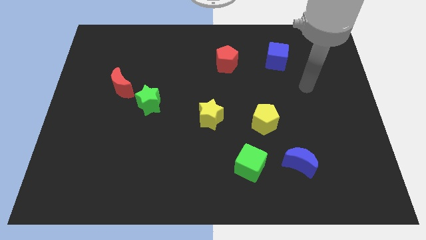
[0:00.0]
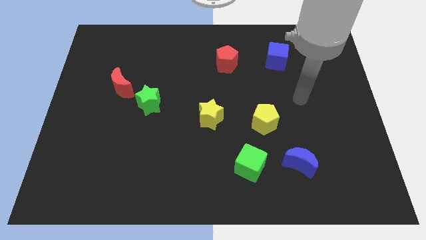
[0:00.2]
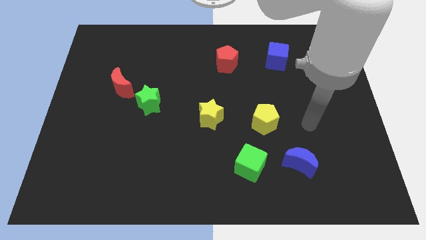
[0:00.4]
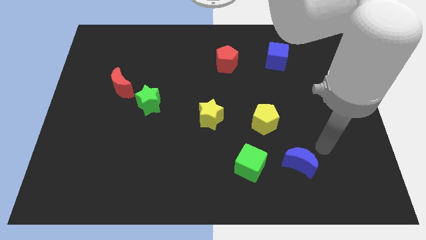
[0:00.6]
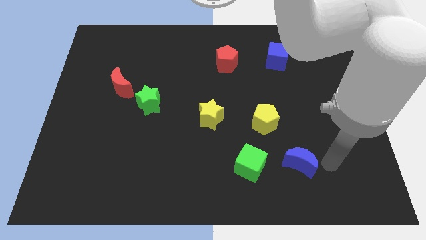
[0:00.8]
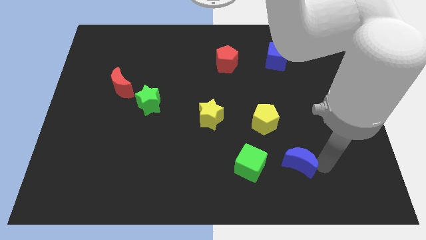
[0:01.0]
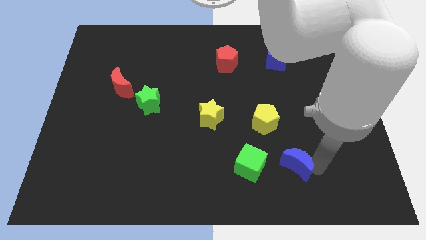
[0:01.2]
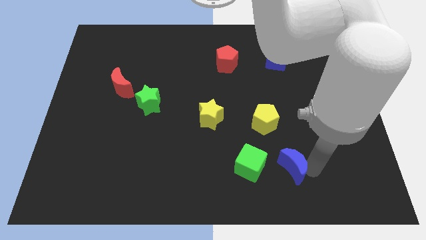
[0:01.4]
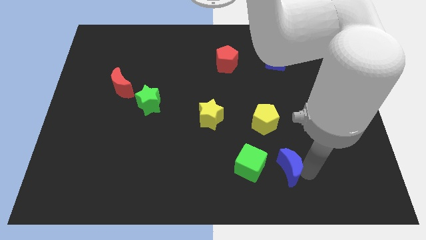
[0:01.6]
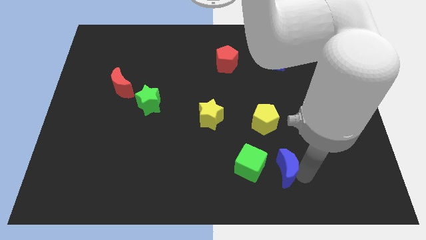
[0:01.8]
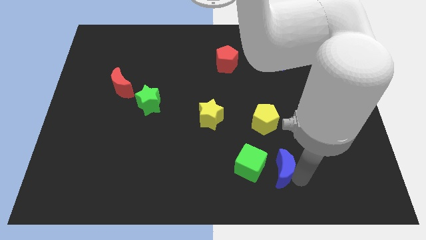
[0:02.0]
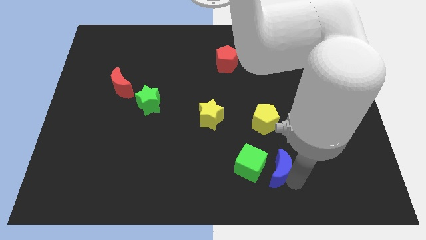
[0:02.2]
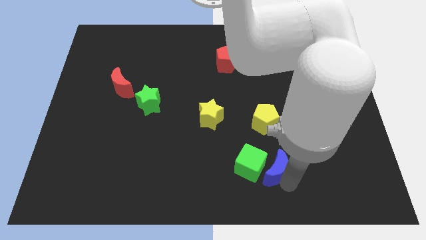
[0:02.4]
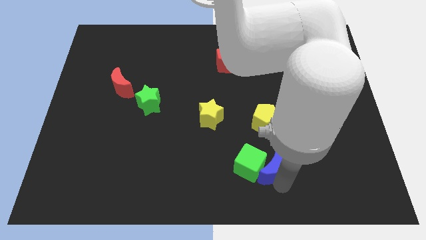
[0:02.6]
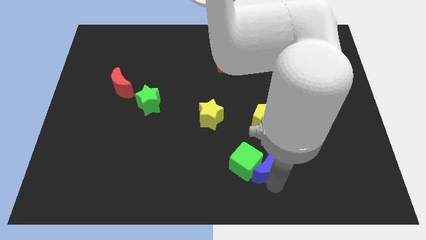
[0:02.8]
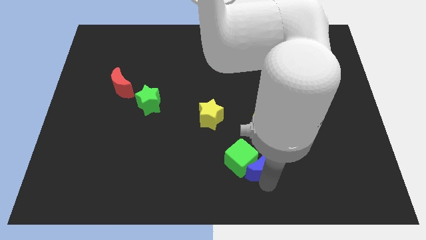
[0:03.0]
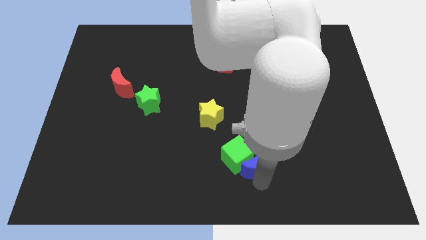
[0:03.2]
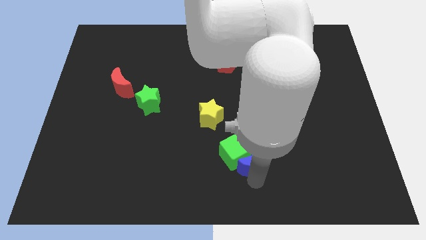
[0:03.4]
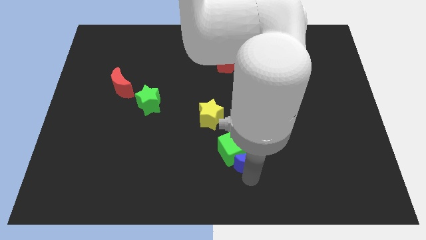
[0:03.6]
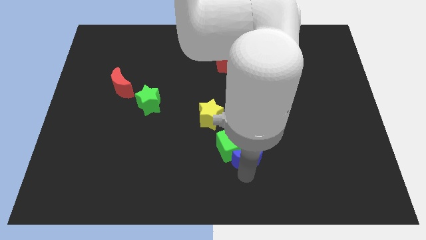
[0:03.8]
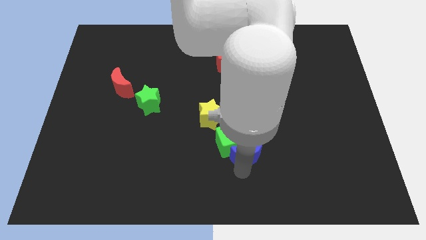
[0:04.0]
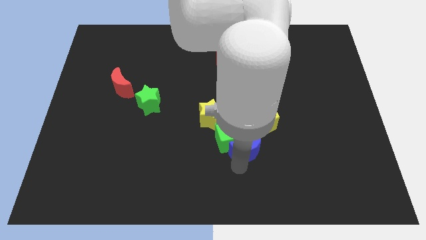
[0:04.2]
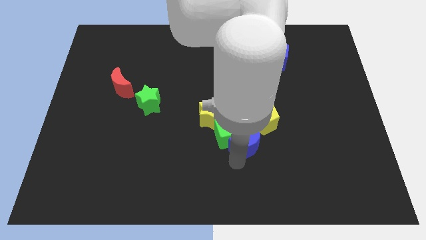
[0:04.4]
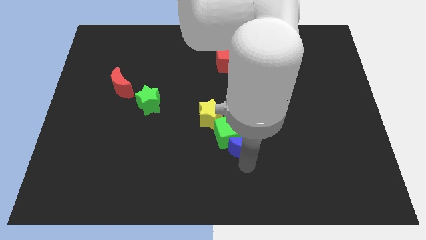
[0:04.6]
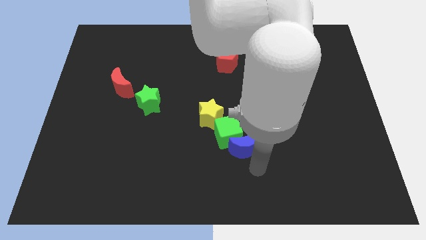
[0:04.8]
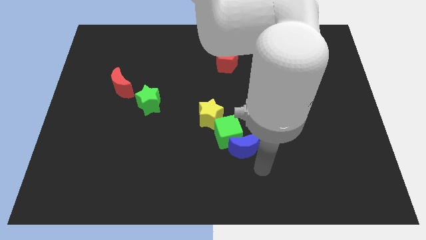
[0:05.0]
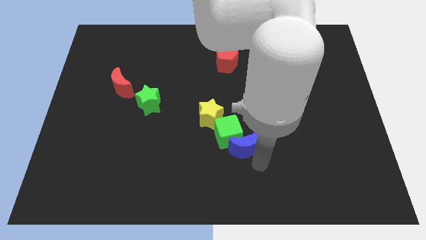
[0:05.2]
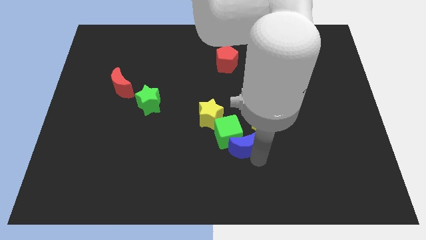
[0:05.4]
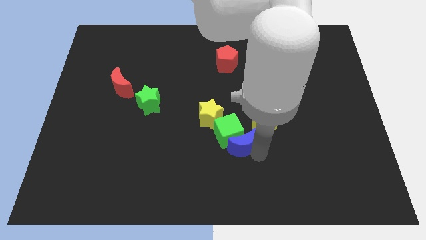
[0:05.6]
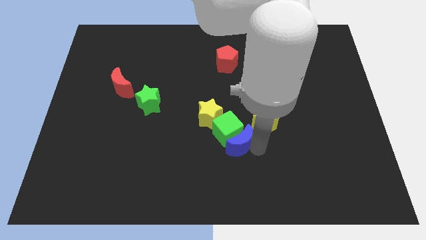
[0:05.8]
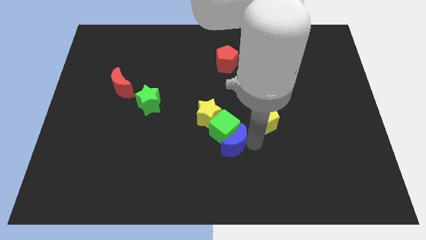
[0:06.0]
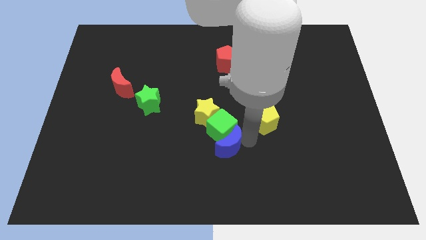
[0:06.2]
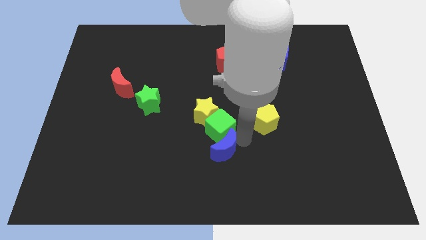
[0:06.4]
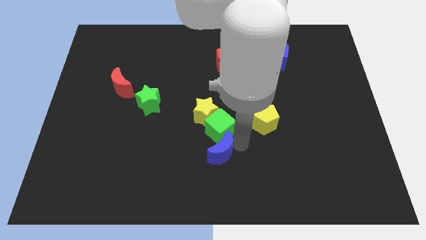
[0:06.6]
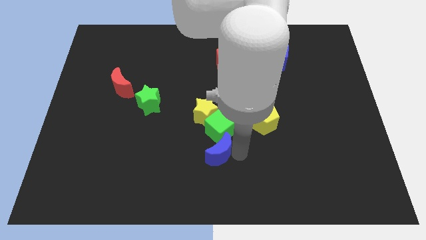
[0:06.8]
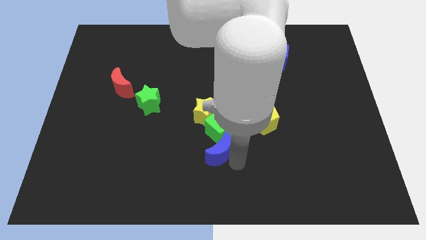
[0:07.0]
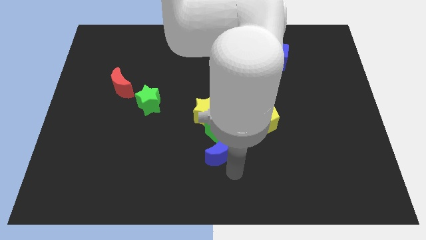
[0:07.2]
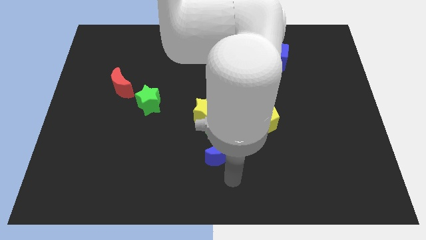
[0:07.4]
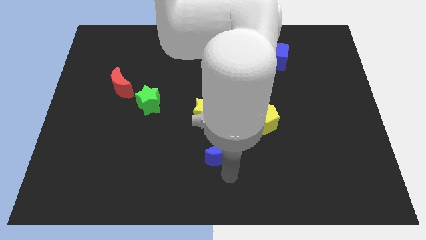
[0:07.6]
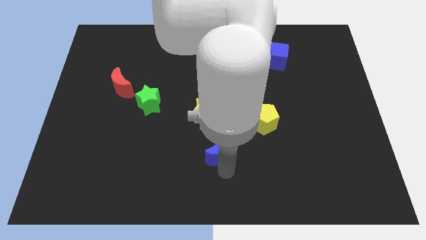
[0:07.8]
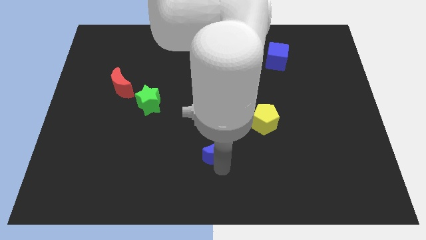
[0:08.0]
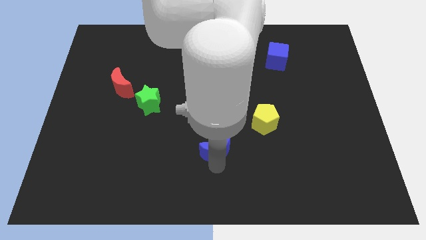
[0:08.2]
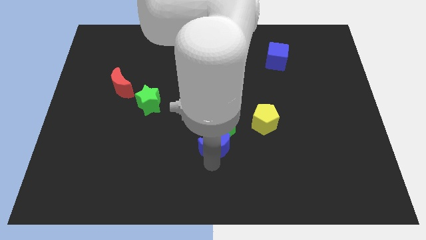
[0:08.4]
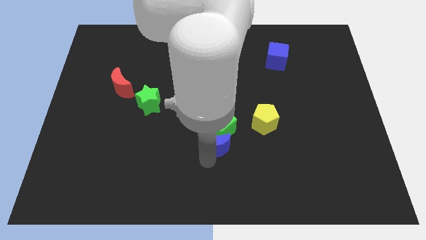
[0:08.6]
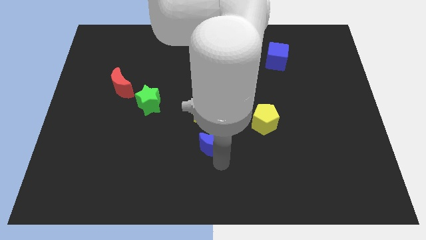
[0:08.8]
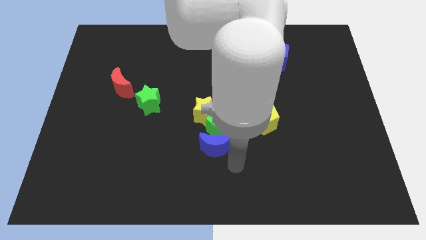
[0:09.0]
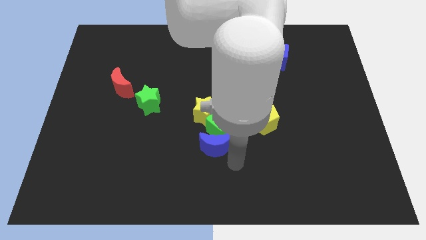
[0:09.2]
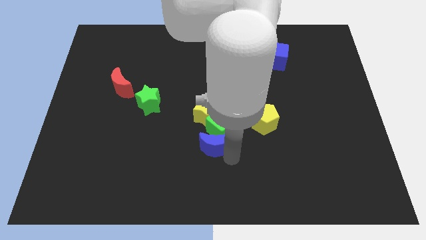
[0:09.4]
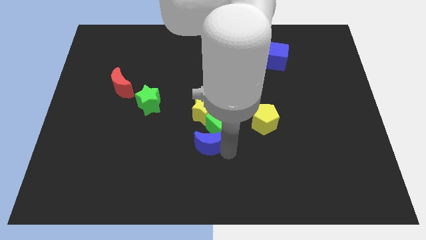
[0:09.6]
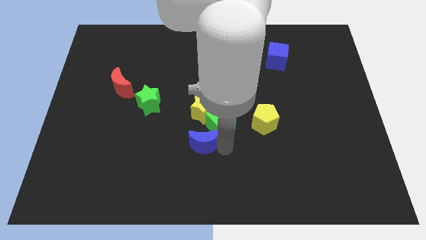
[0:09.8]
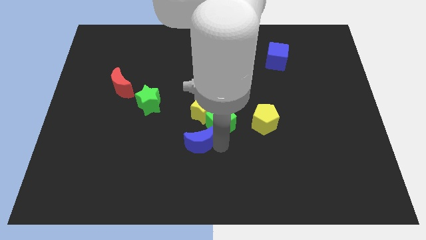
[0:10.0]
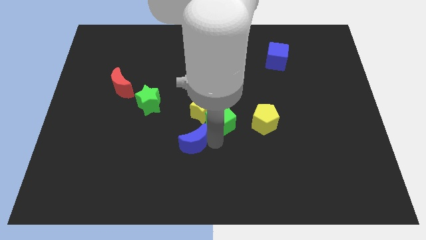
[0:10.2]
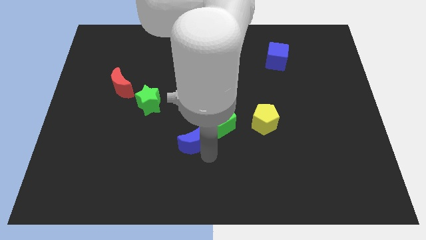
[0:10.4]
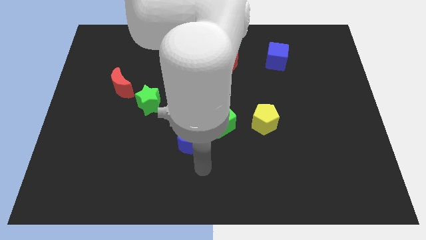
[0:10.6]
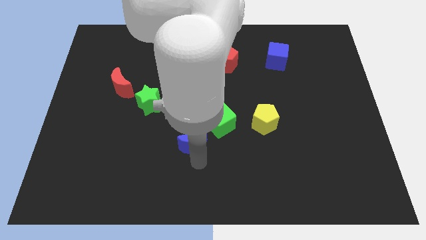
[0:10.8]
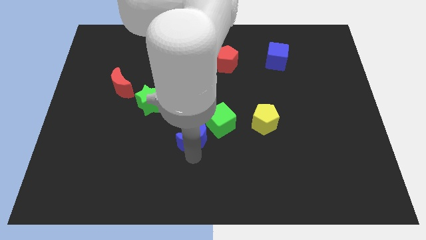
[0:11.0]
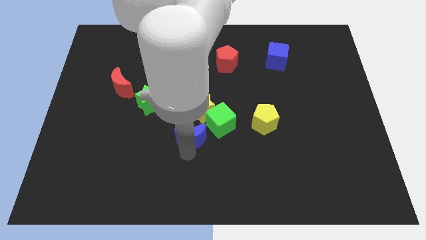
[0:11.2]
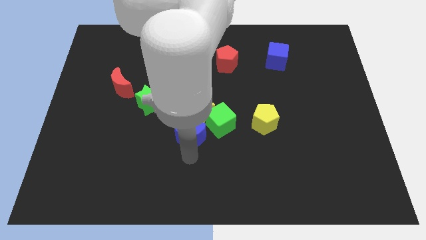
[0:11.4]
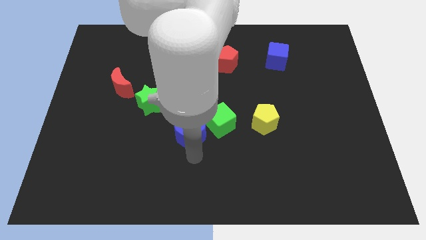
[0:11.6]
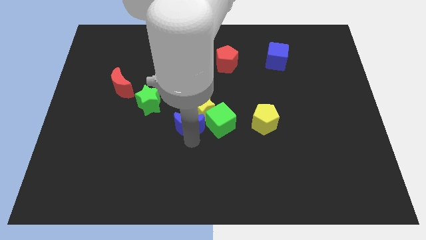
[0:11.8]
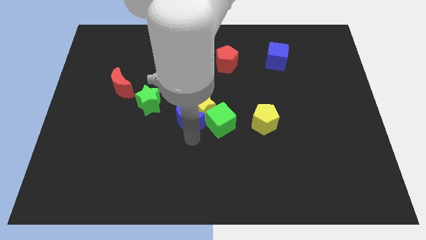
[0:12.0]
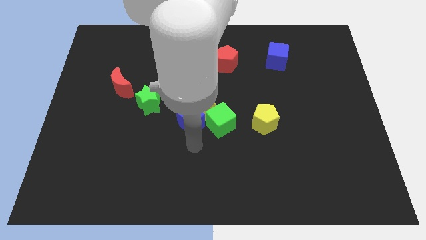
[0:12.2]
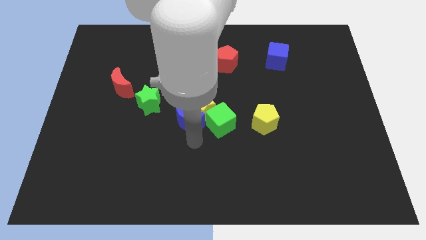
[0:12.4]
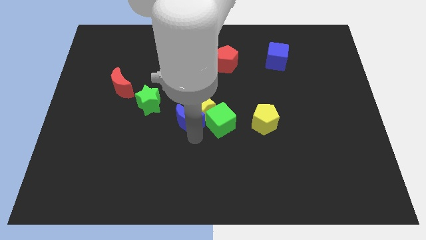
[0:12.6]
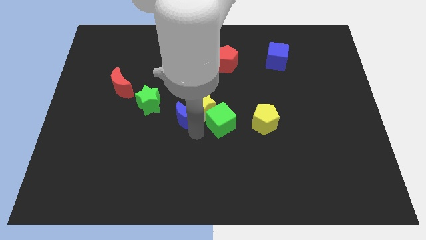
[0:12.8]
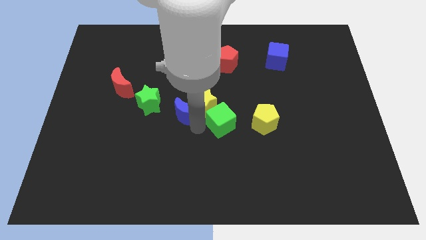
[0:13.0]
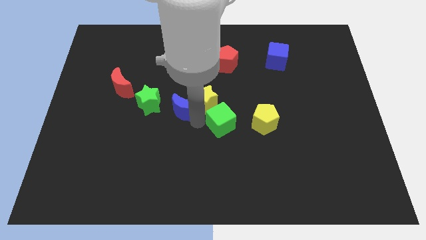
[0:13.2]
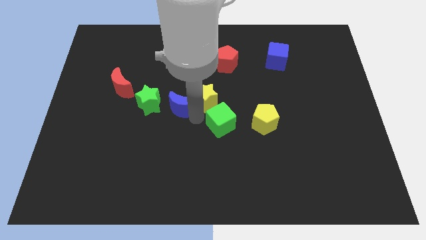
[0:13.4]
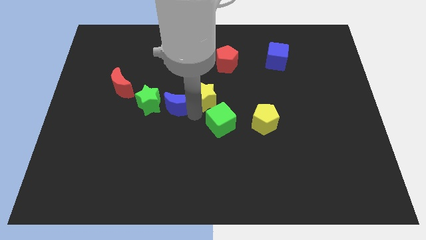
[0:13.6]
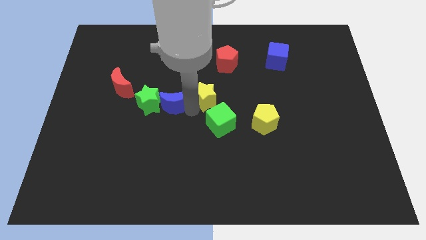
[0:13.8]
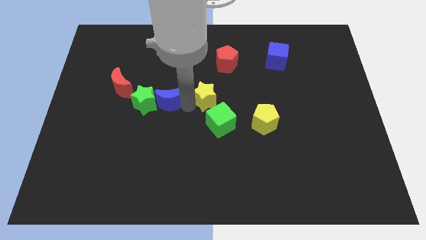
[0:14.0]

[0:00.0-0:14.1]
push the blue moon just right of the red moon

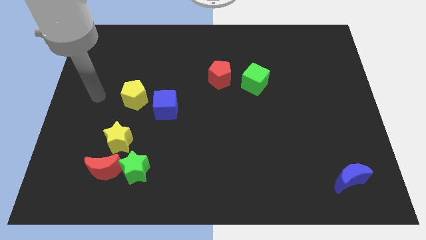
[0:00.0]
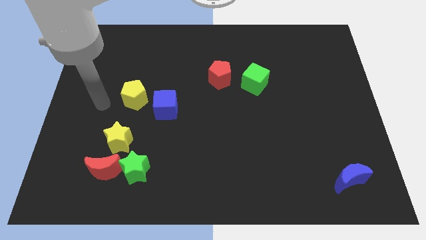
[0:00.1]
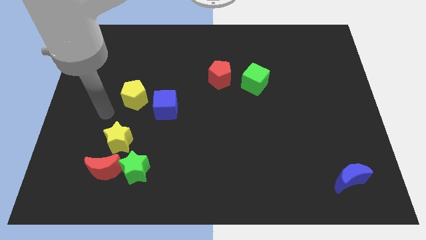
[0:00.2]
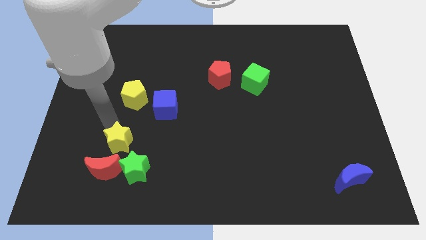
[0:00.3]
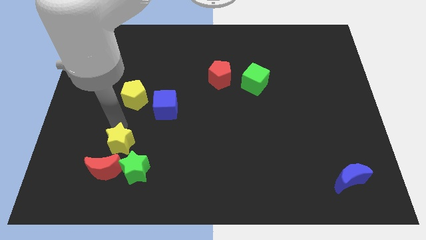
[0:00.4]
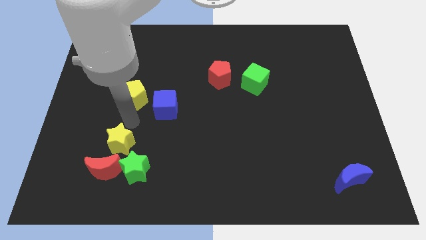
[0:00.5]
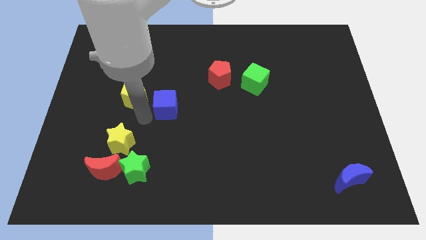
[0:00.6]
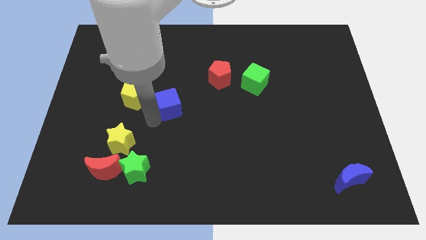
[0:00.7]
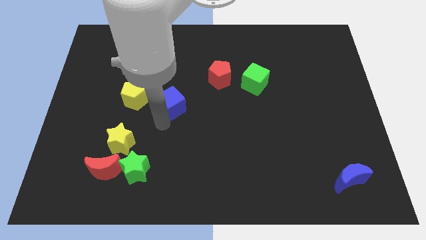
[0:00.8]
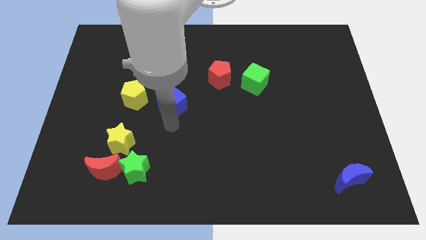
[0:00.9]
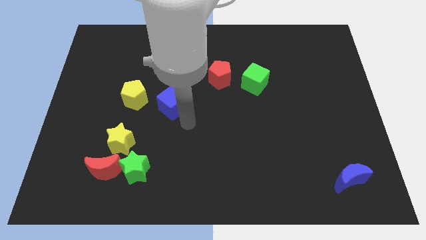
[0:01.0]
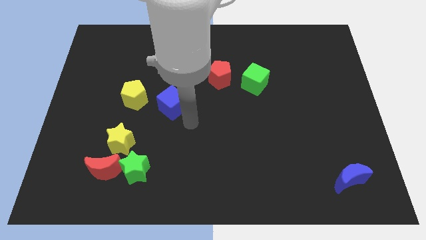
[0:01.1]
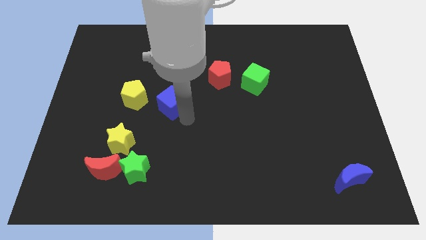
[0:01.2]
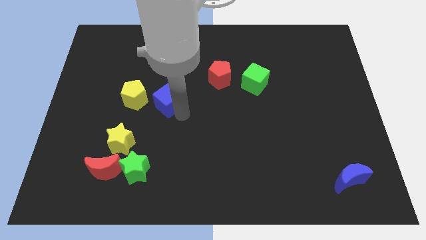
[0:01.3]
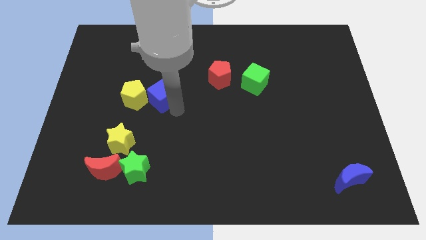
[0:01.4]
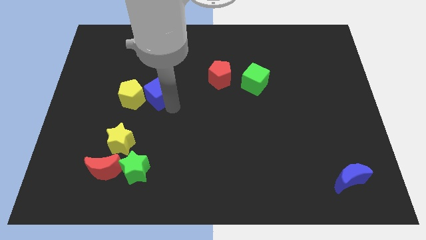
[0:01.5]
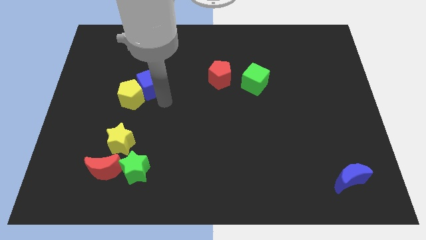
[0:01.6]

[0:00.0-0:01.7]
put the blue cube to the top side of the yellow pentagon
